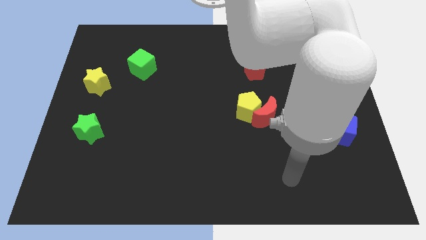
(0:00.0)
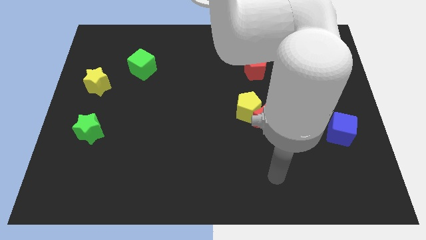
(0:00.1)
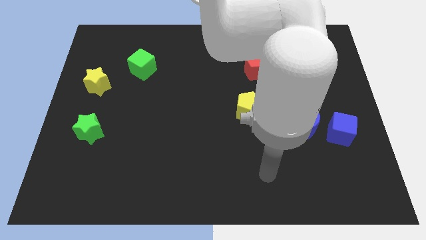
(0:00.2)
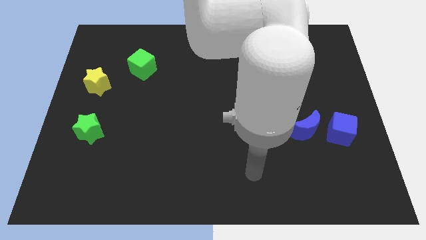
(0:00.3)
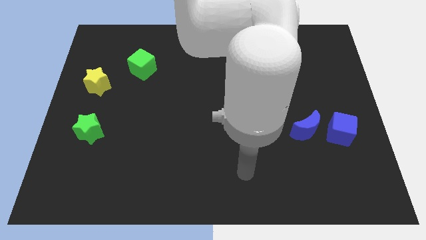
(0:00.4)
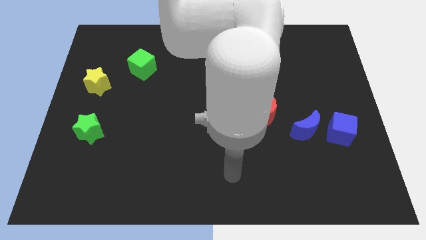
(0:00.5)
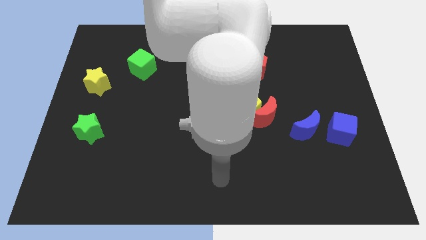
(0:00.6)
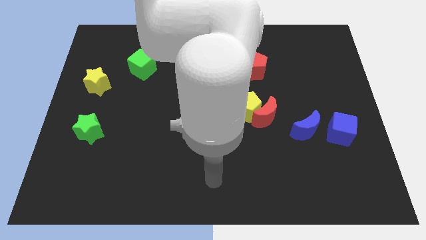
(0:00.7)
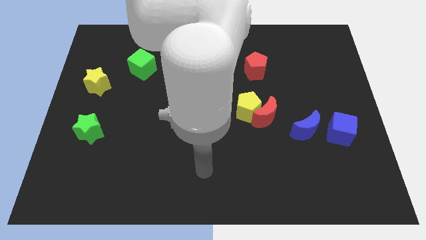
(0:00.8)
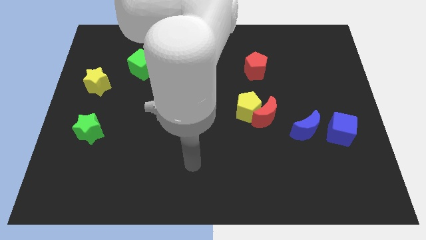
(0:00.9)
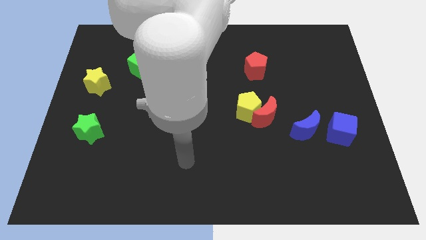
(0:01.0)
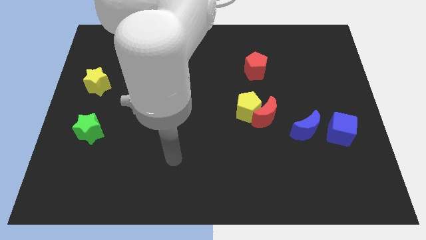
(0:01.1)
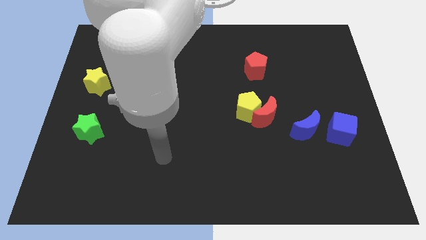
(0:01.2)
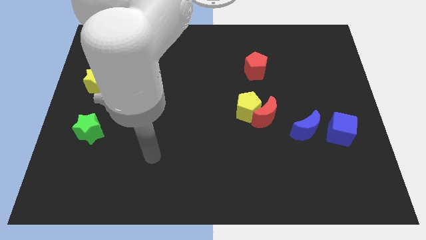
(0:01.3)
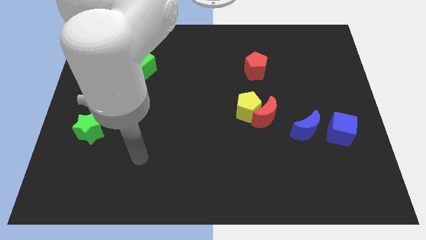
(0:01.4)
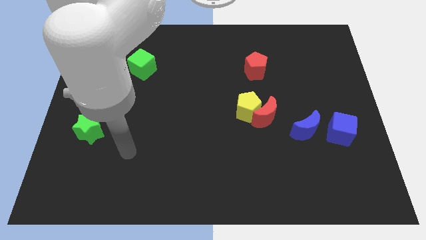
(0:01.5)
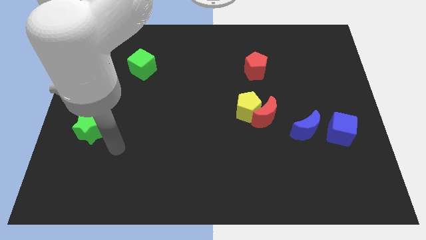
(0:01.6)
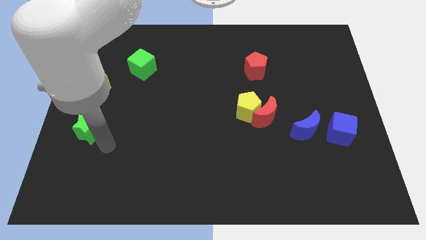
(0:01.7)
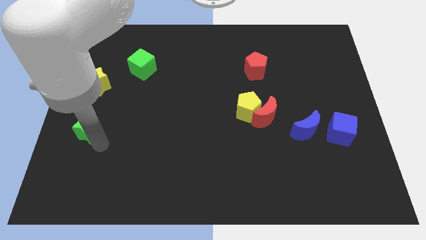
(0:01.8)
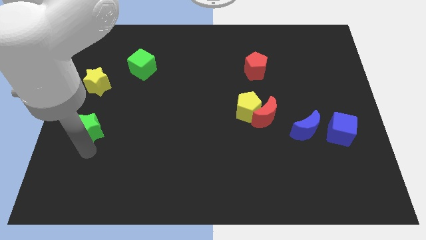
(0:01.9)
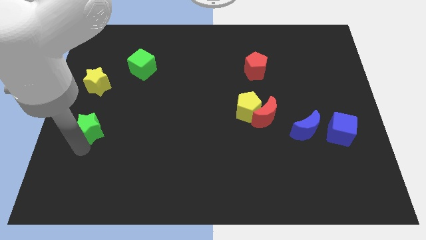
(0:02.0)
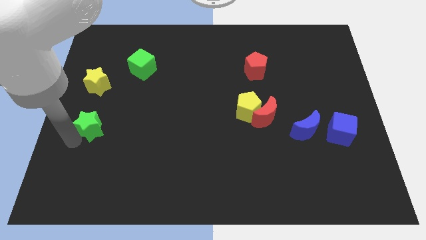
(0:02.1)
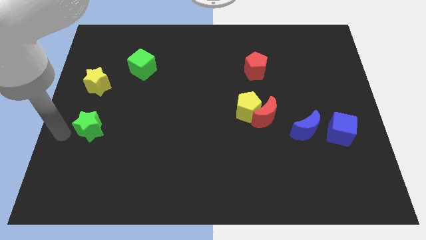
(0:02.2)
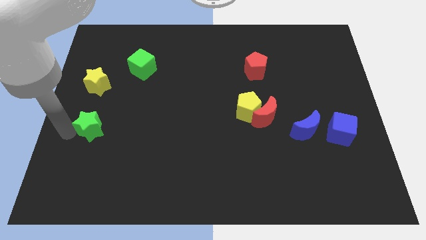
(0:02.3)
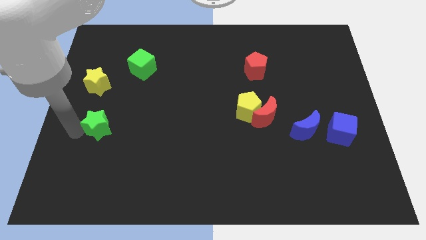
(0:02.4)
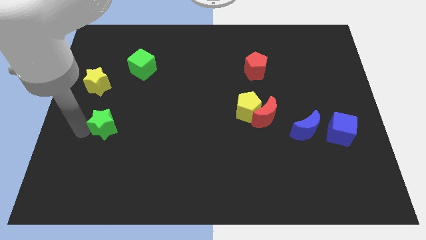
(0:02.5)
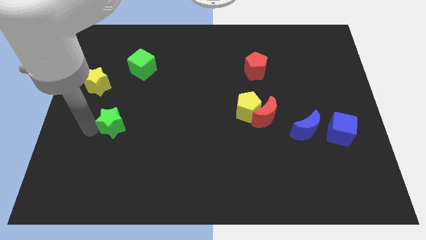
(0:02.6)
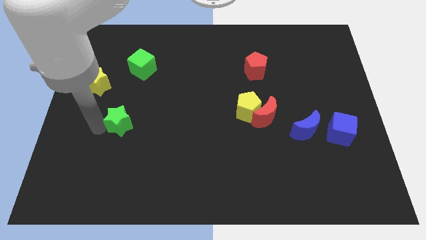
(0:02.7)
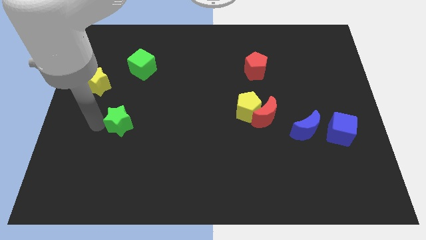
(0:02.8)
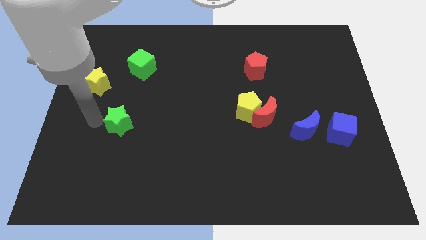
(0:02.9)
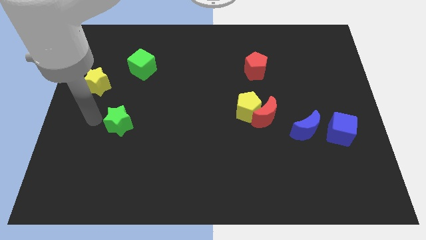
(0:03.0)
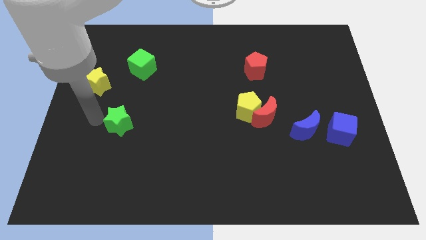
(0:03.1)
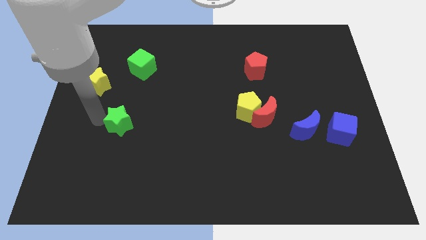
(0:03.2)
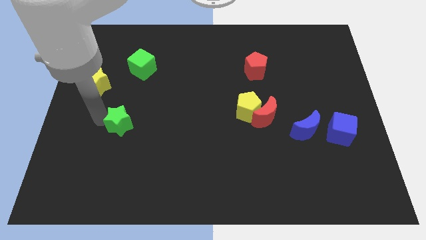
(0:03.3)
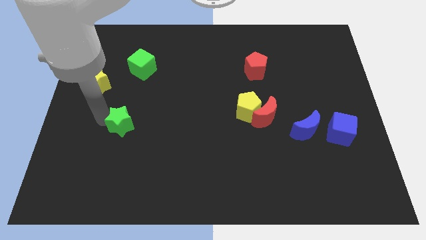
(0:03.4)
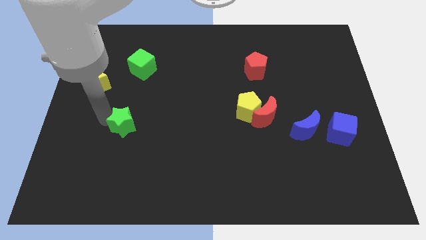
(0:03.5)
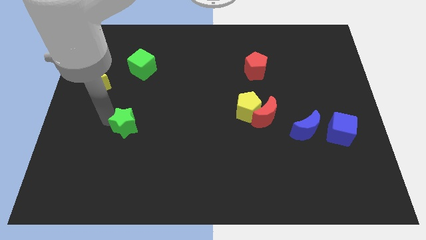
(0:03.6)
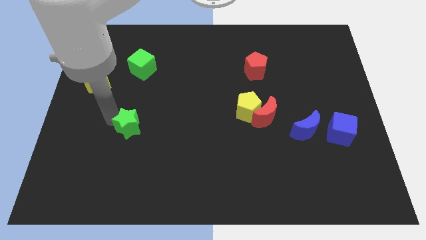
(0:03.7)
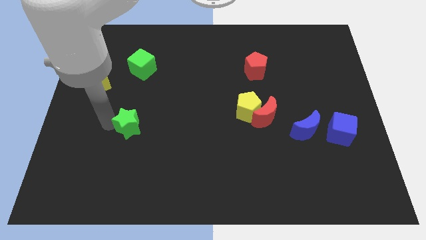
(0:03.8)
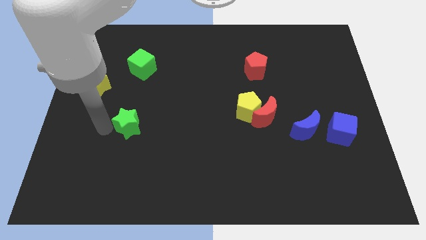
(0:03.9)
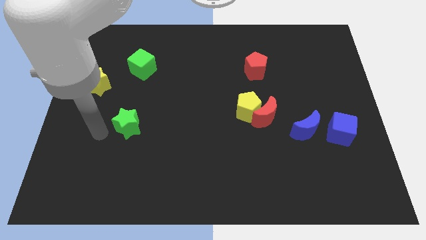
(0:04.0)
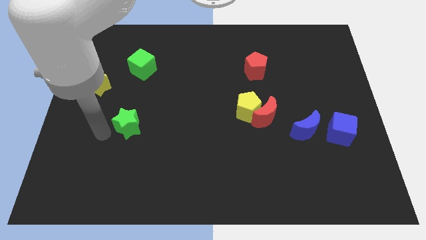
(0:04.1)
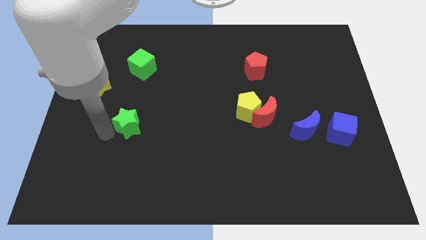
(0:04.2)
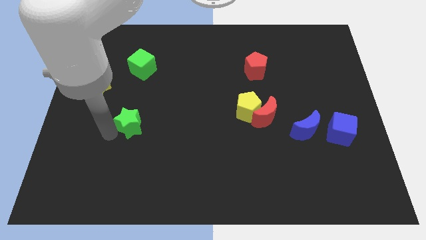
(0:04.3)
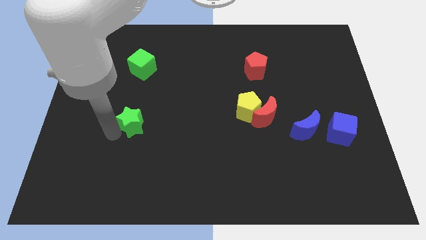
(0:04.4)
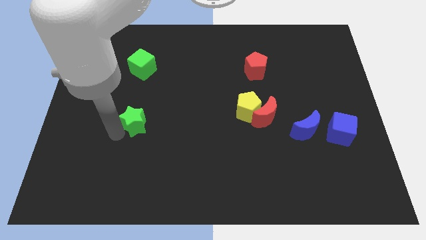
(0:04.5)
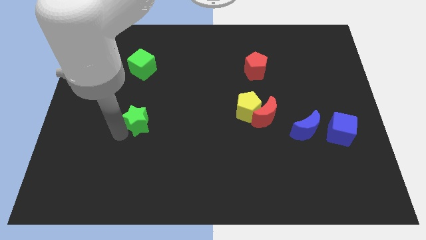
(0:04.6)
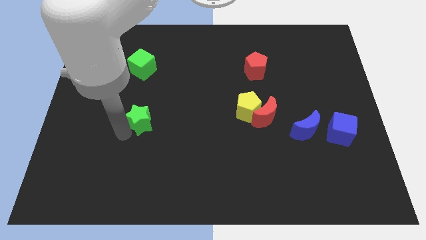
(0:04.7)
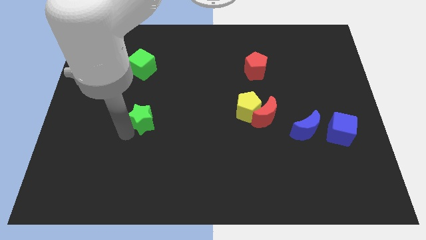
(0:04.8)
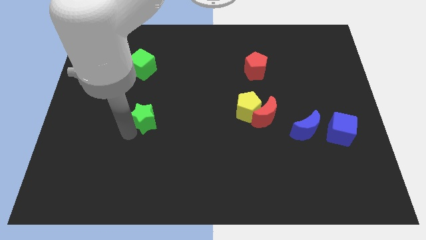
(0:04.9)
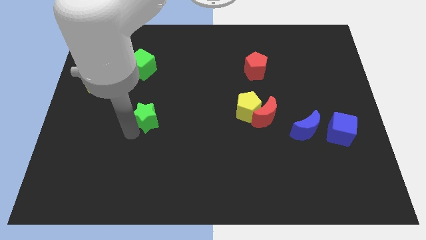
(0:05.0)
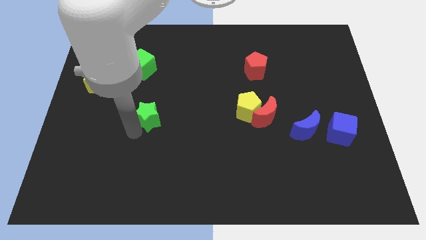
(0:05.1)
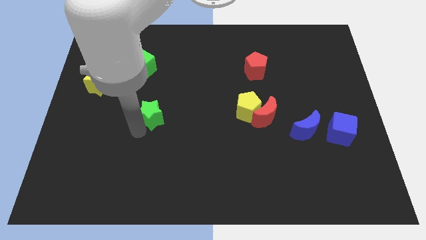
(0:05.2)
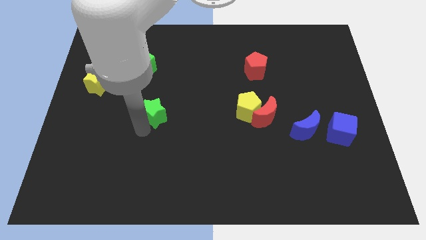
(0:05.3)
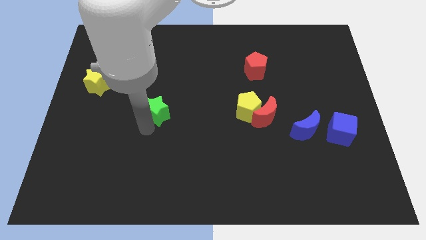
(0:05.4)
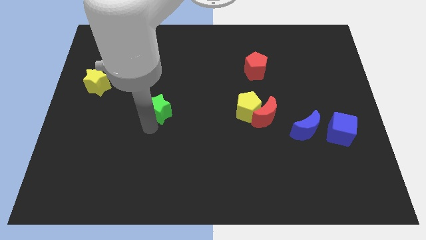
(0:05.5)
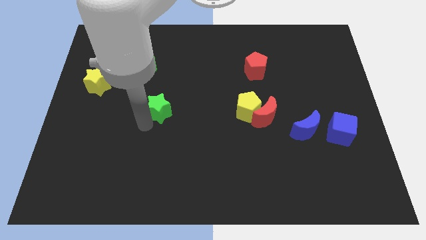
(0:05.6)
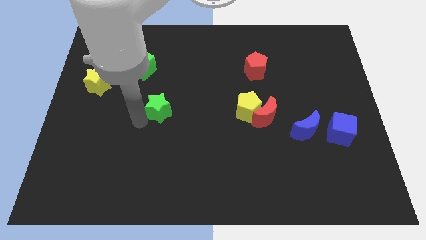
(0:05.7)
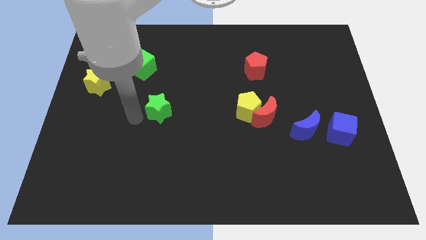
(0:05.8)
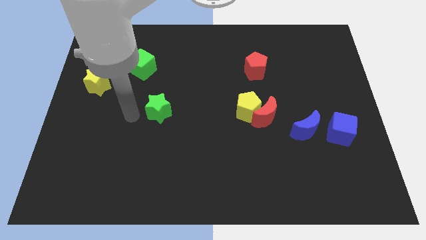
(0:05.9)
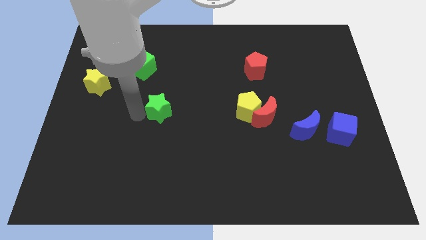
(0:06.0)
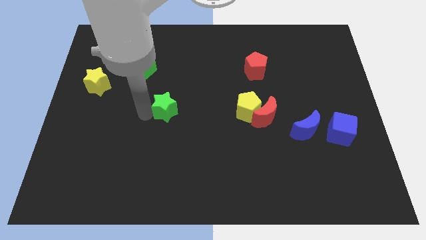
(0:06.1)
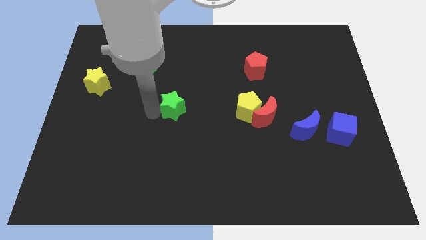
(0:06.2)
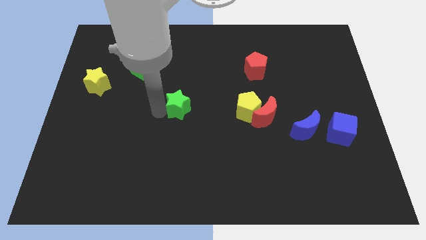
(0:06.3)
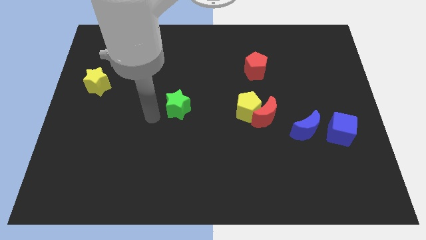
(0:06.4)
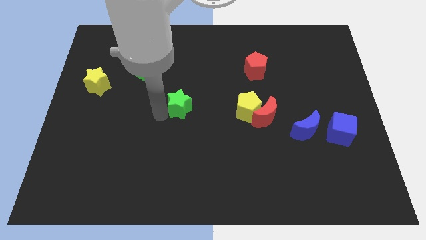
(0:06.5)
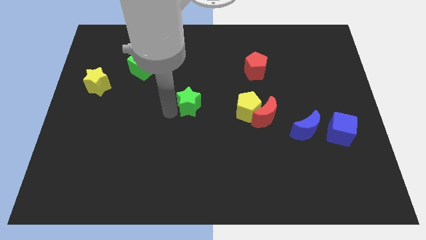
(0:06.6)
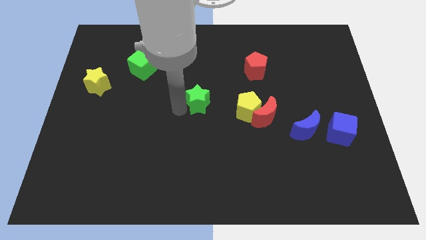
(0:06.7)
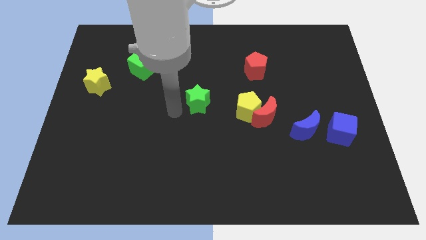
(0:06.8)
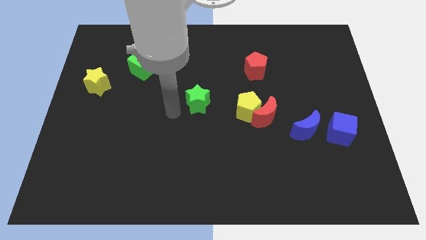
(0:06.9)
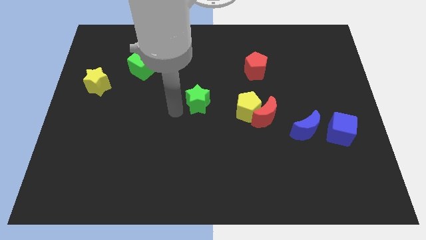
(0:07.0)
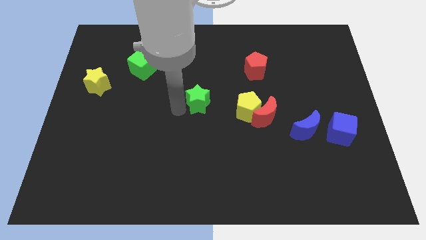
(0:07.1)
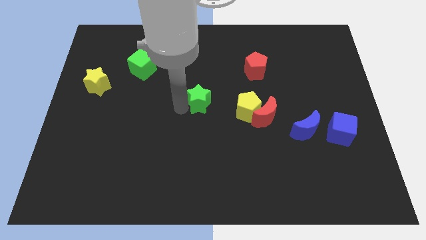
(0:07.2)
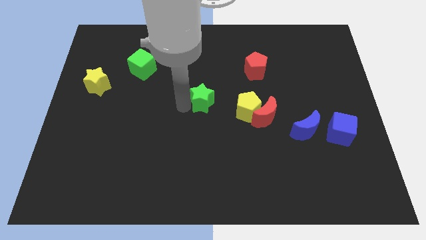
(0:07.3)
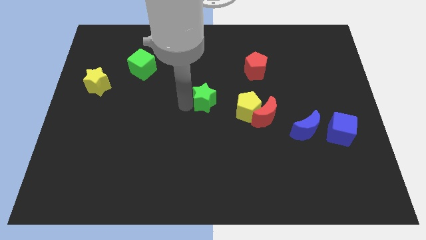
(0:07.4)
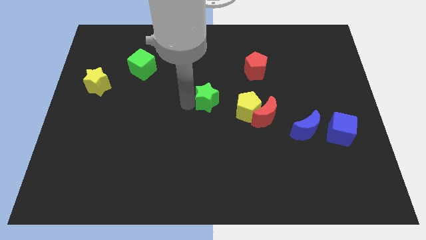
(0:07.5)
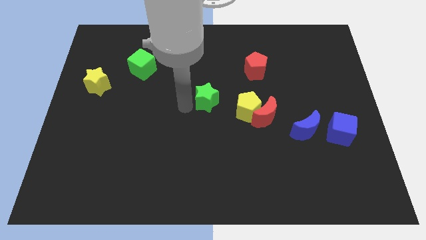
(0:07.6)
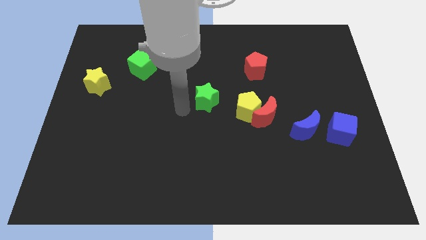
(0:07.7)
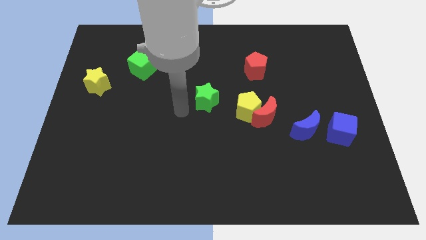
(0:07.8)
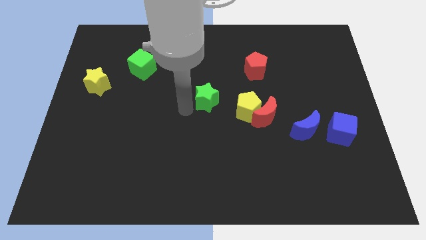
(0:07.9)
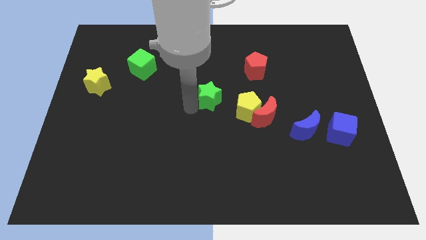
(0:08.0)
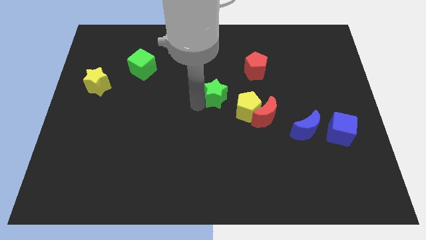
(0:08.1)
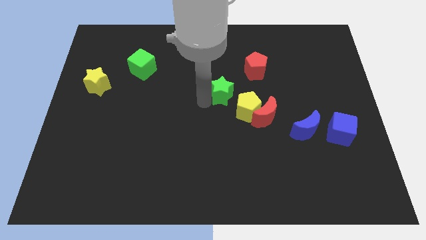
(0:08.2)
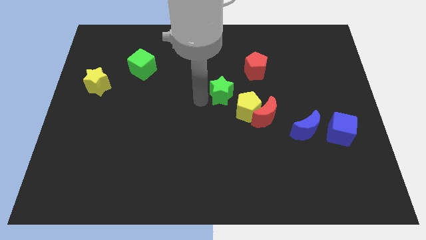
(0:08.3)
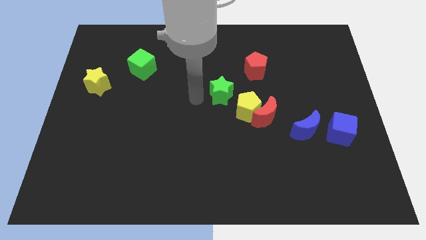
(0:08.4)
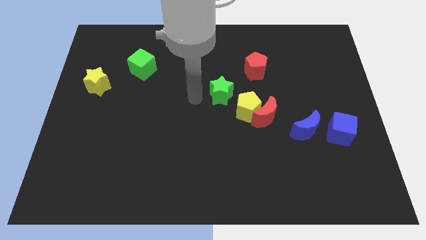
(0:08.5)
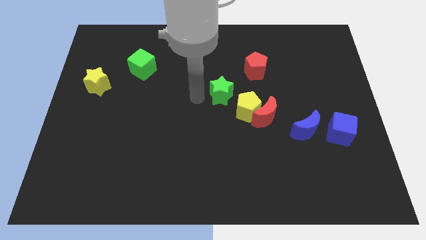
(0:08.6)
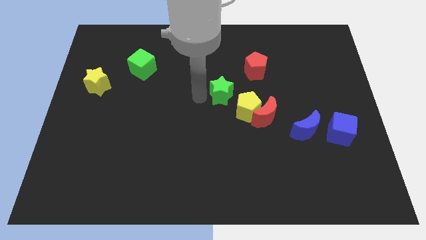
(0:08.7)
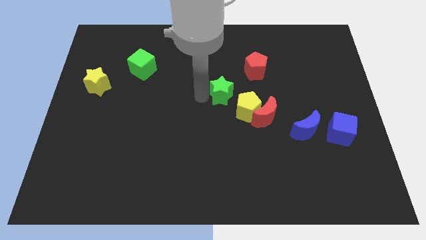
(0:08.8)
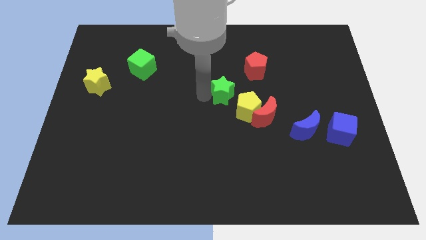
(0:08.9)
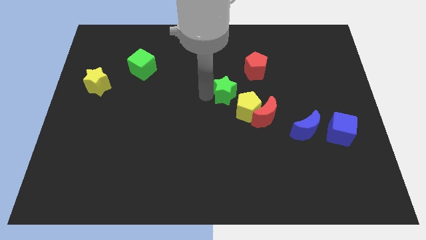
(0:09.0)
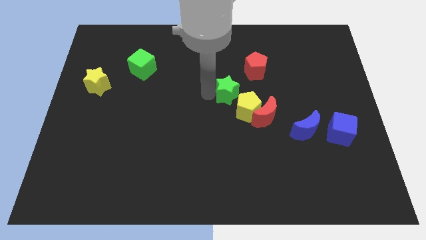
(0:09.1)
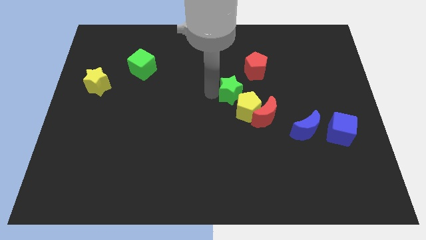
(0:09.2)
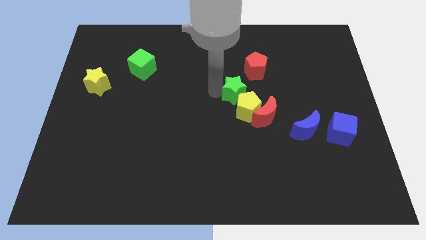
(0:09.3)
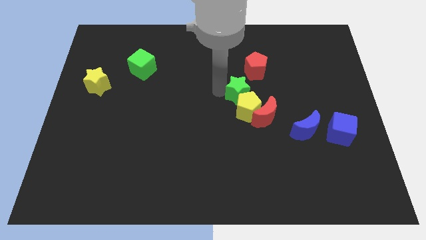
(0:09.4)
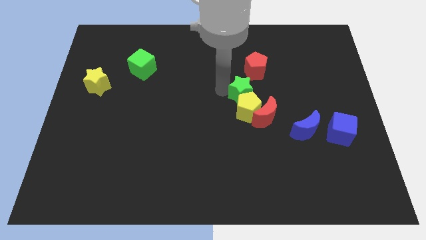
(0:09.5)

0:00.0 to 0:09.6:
push the green star to the top right of the yellow pentagon
